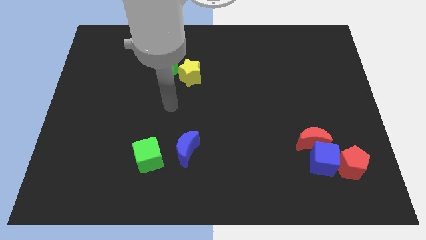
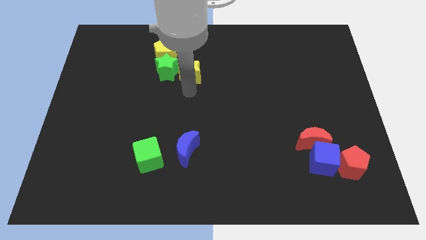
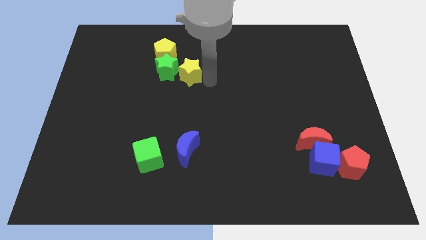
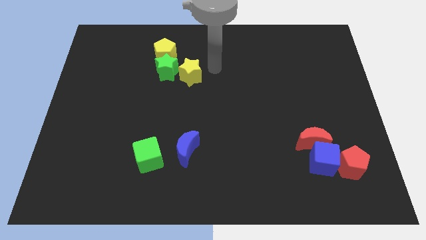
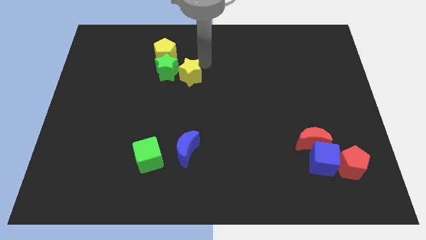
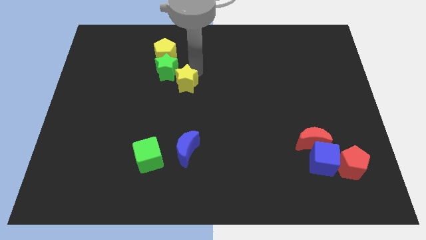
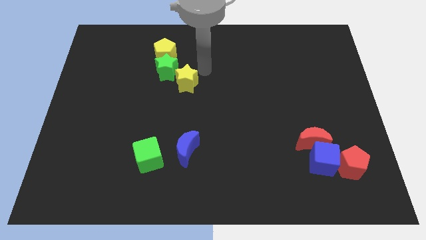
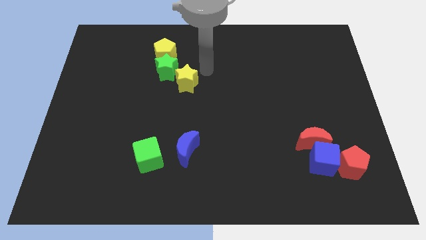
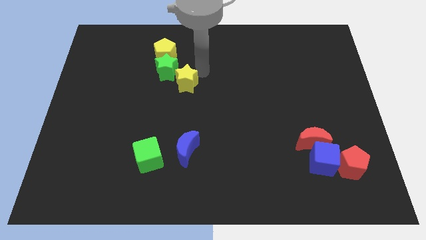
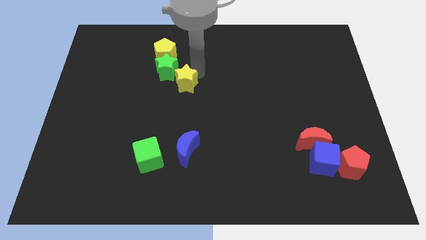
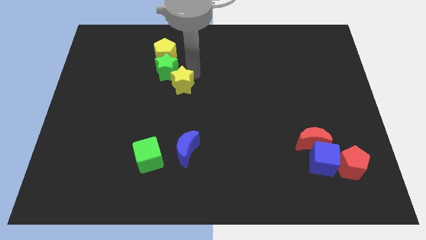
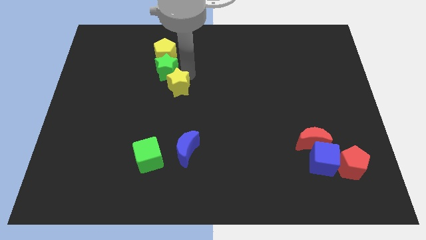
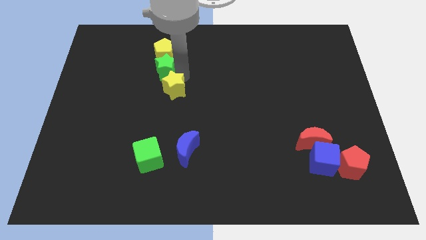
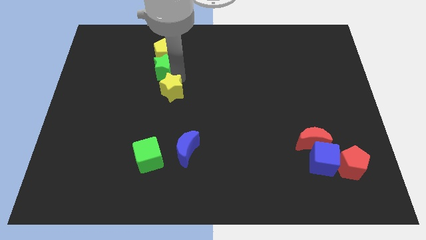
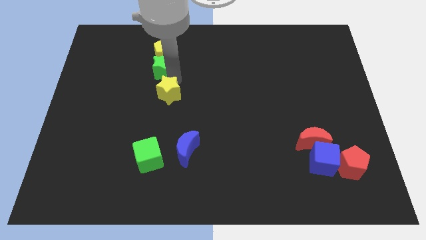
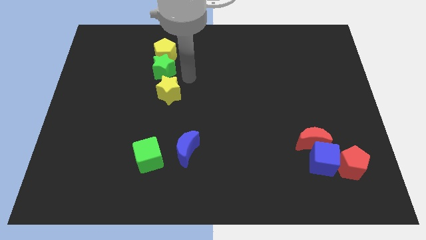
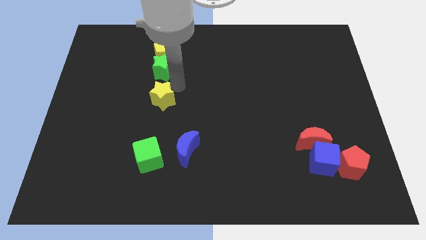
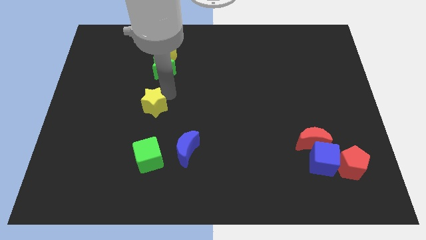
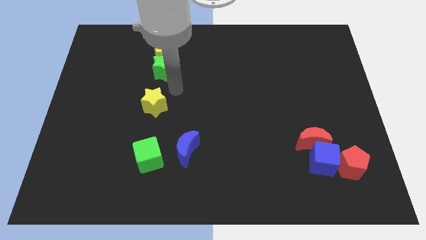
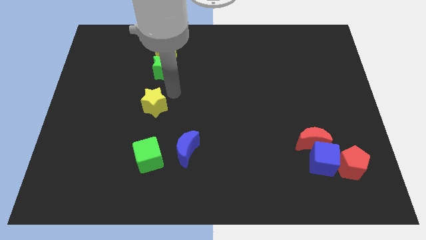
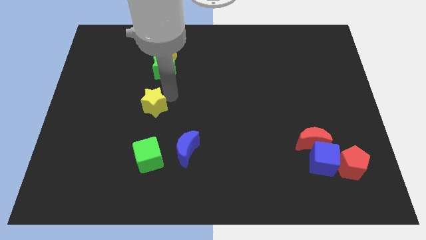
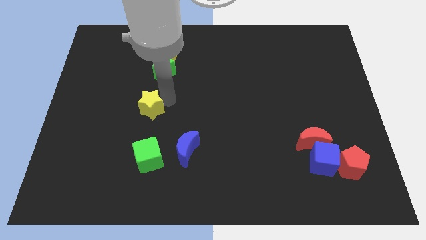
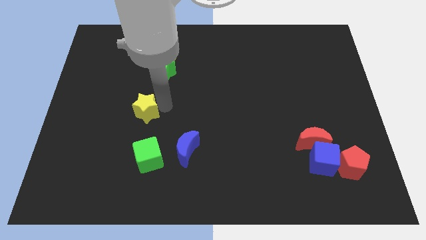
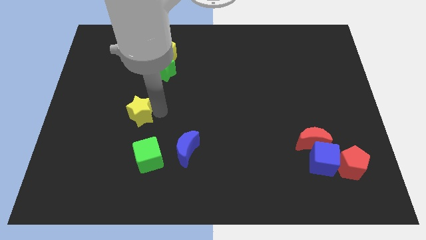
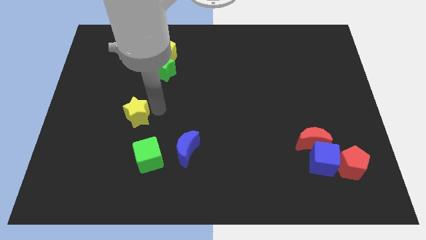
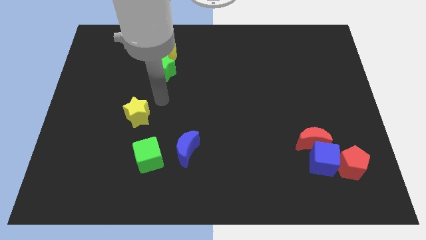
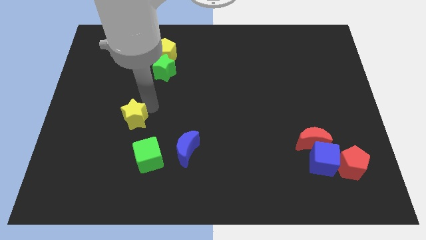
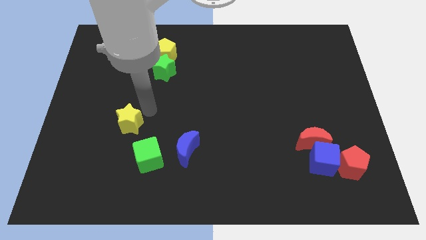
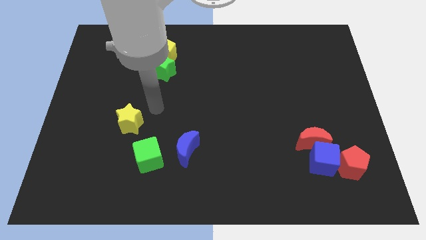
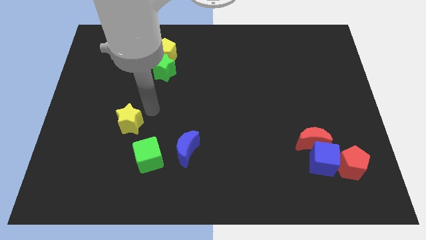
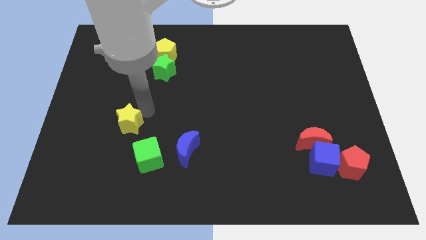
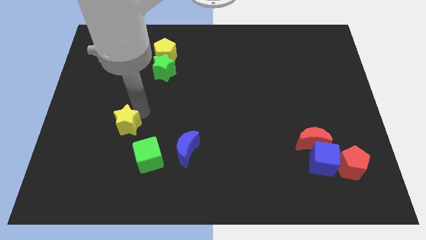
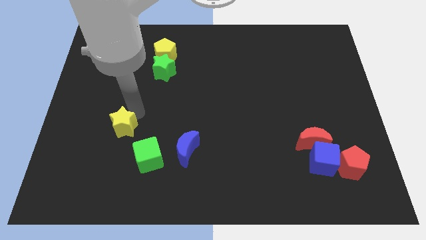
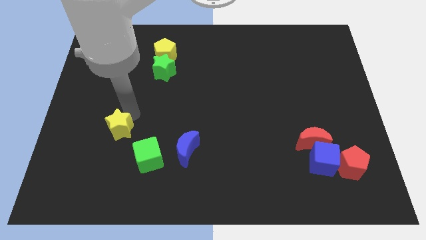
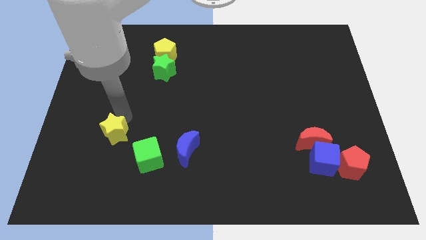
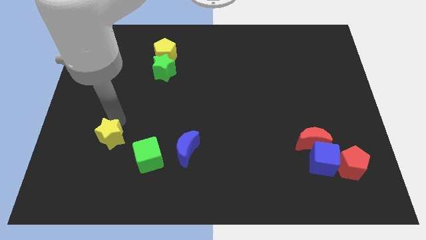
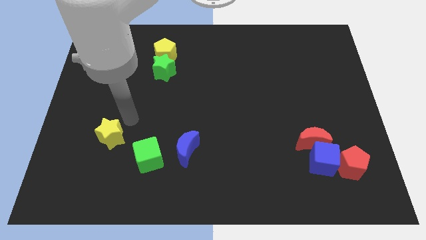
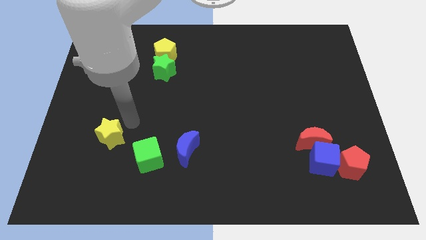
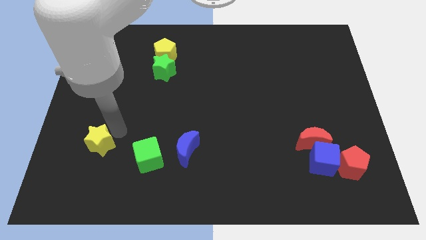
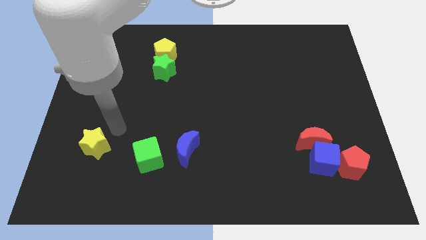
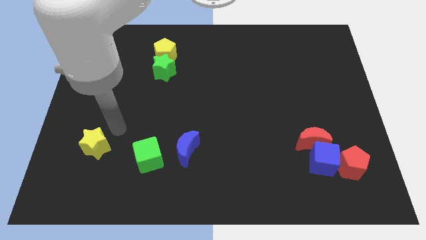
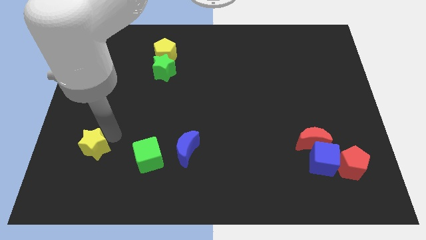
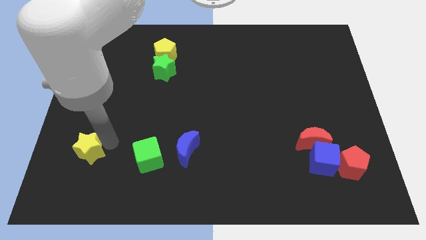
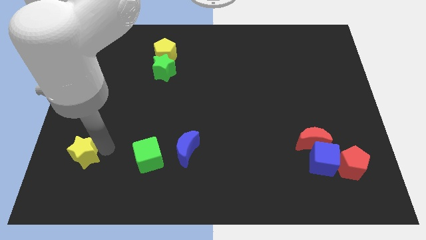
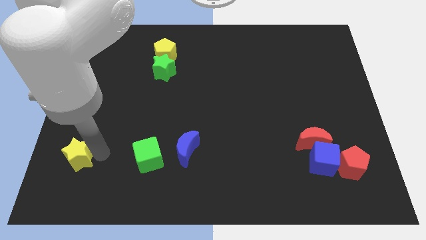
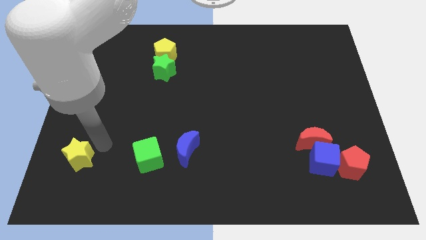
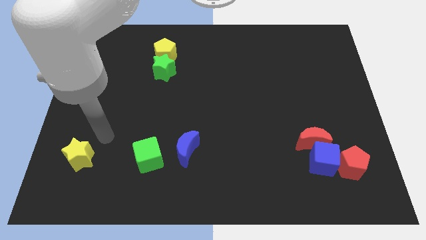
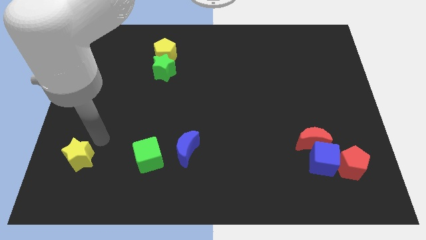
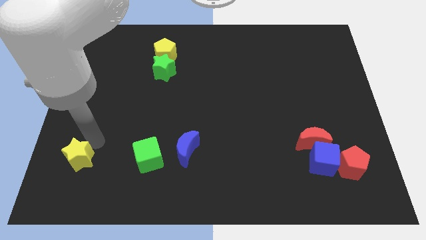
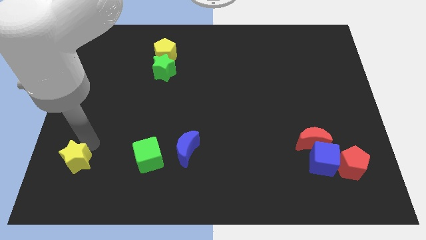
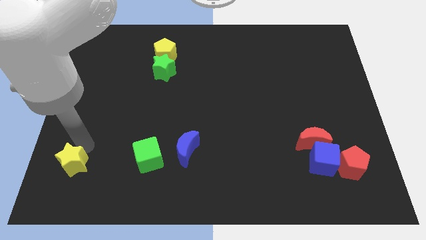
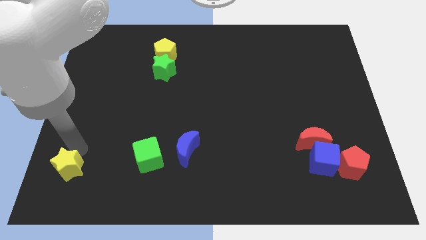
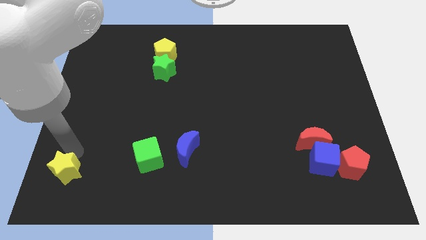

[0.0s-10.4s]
push the yellow star to the bottom left corner

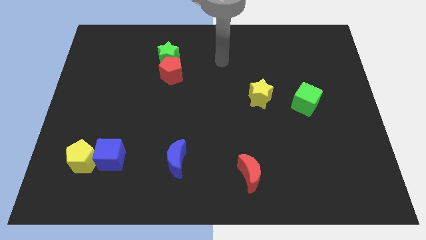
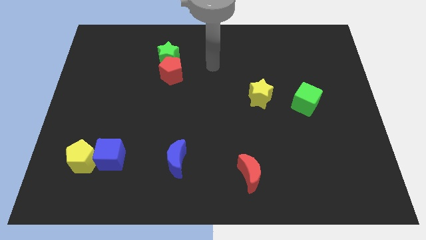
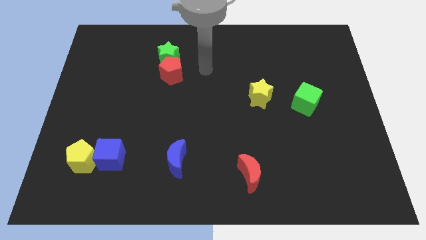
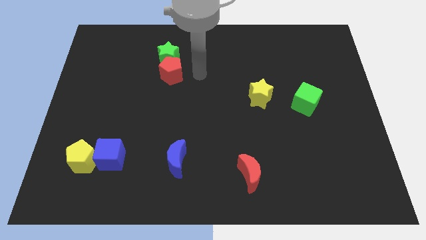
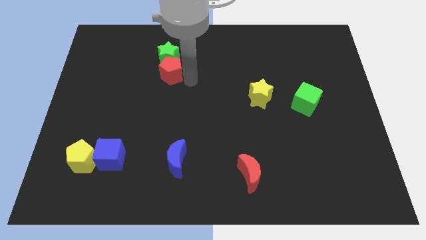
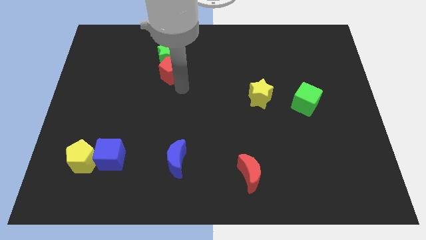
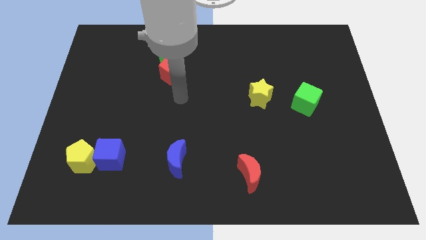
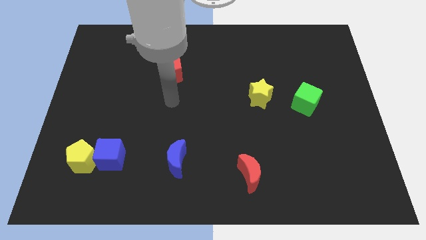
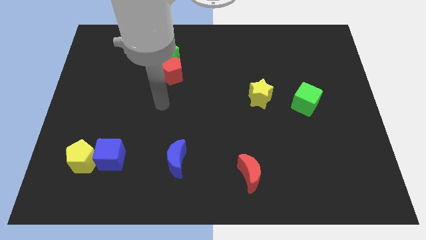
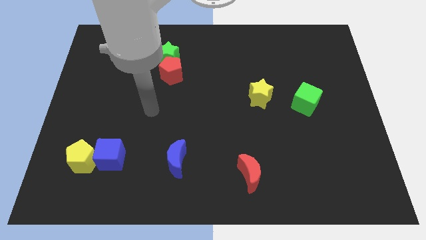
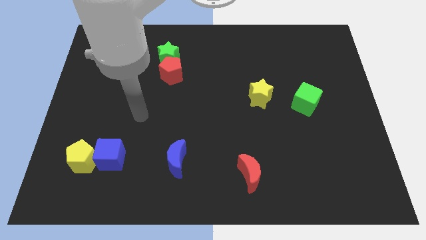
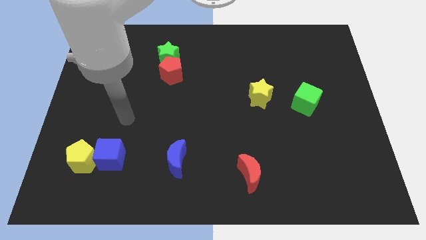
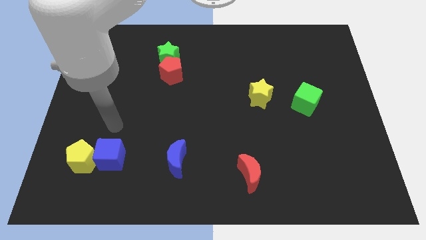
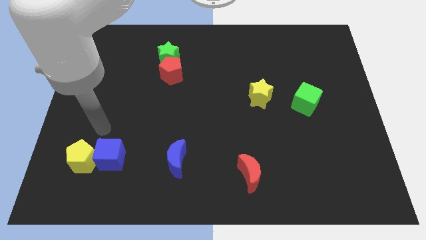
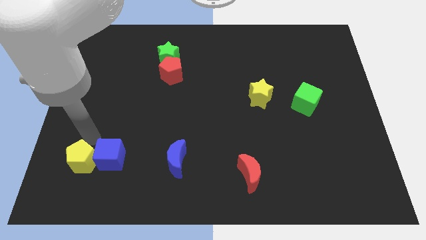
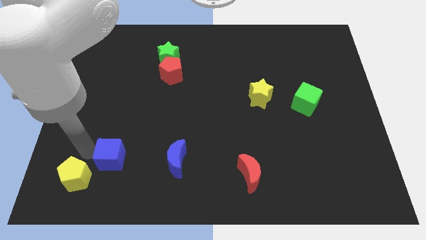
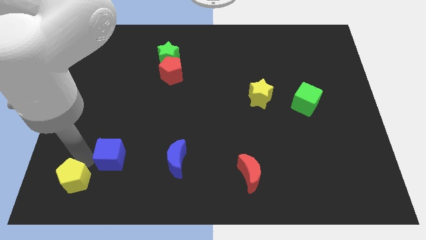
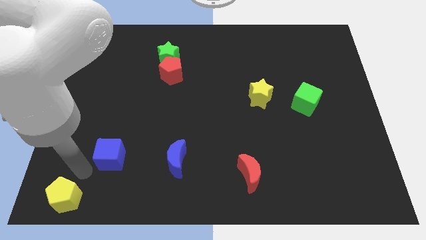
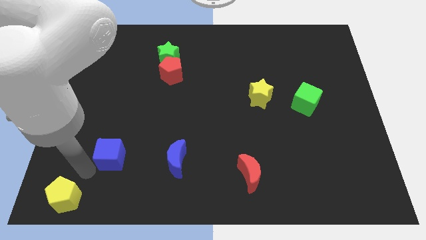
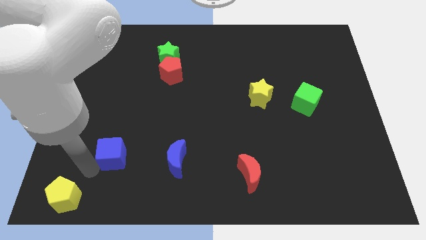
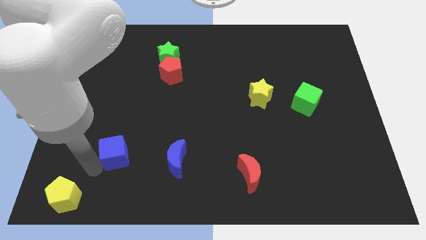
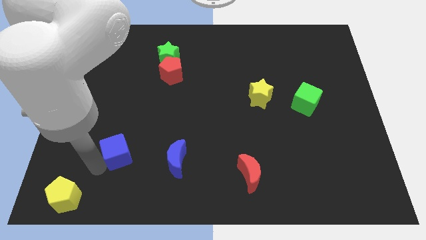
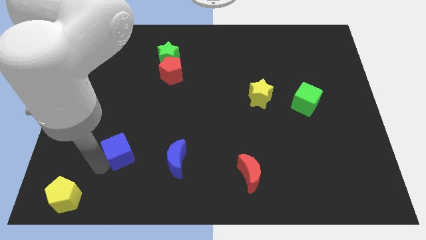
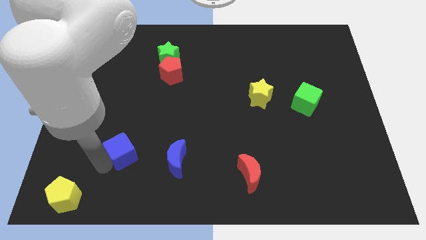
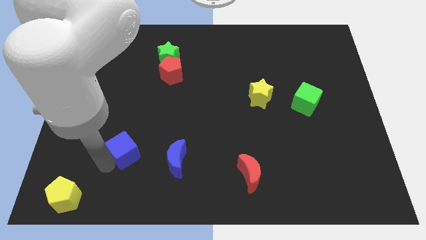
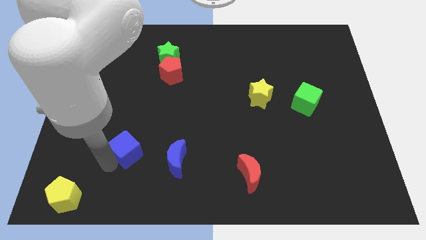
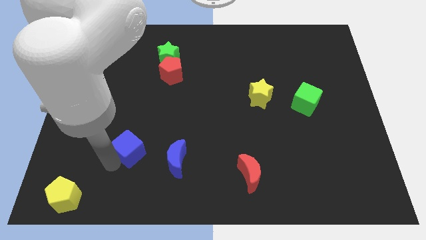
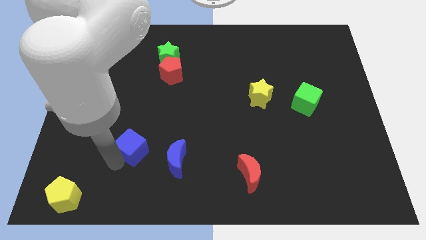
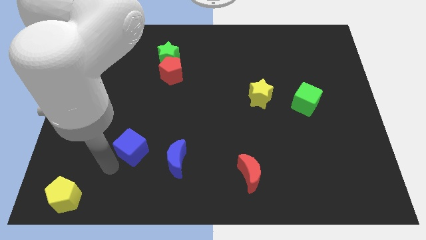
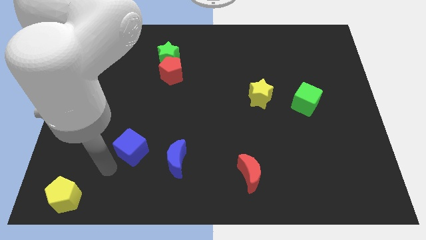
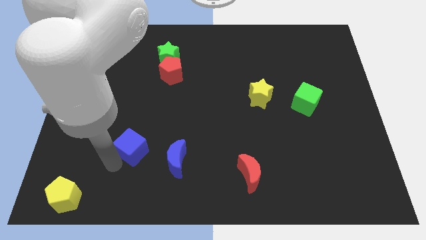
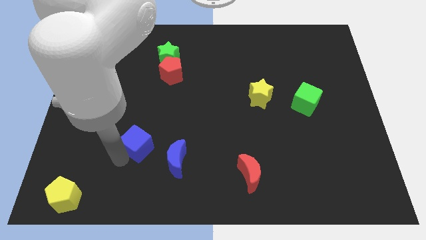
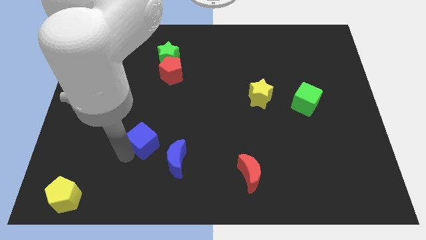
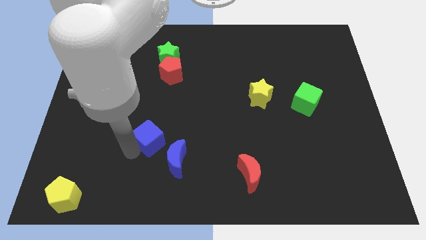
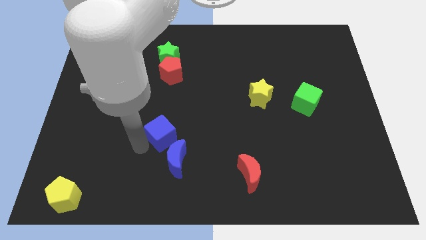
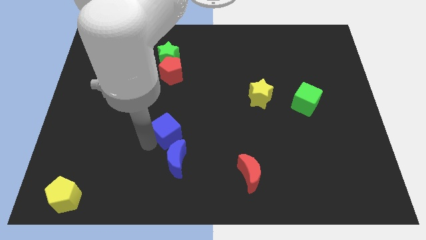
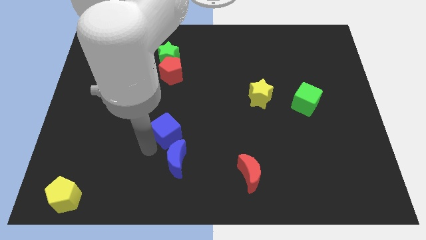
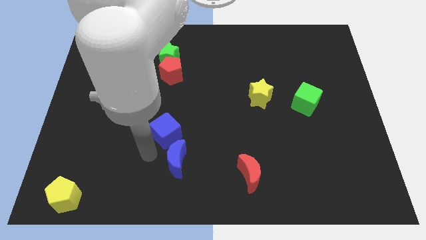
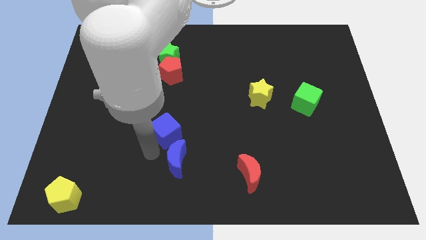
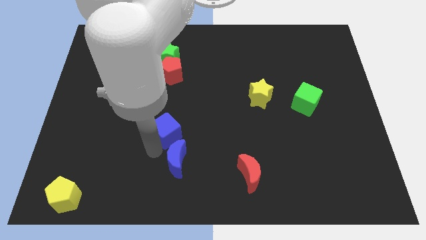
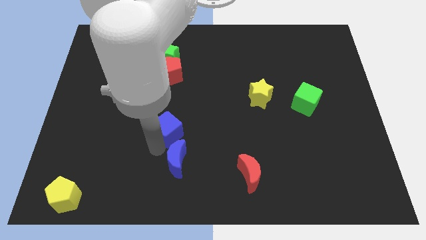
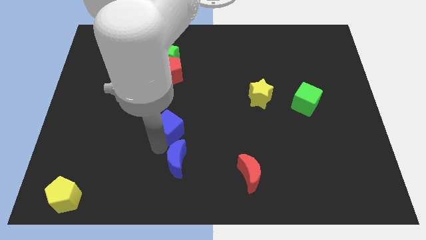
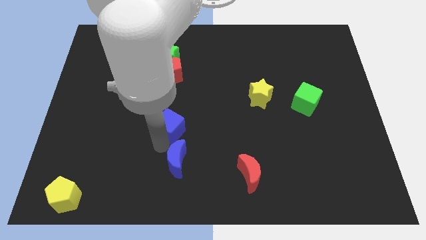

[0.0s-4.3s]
move the blue cube to the middle of the board
